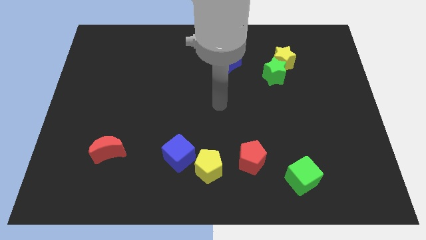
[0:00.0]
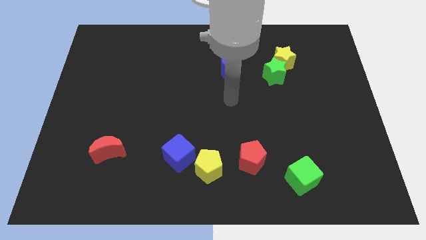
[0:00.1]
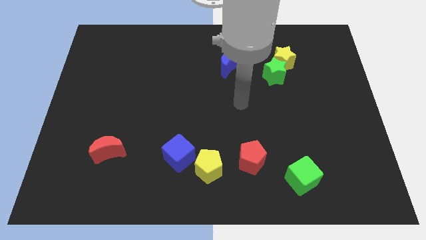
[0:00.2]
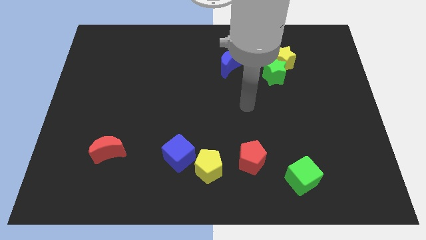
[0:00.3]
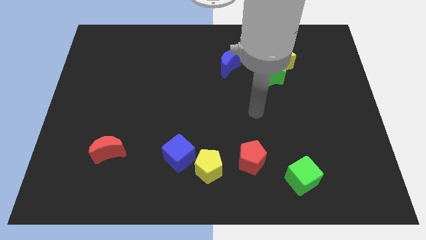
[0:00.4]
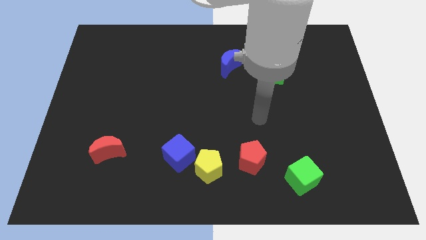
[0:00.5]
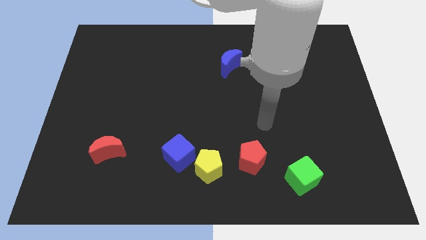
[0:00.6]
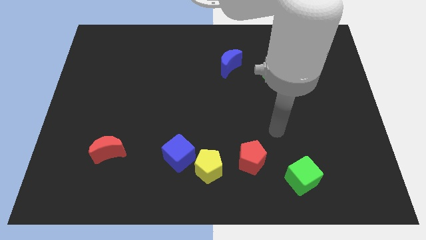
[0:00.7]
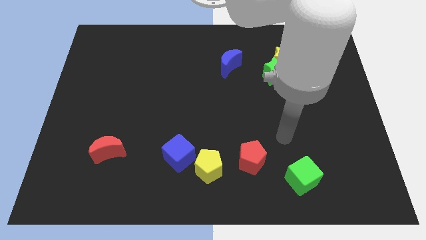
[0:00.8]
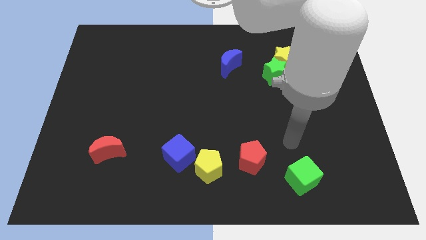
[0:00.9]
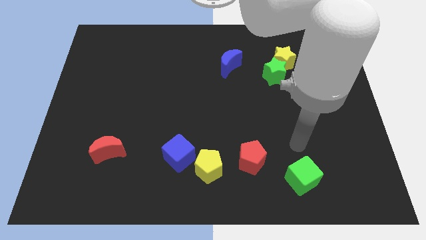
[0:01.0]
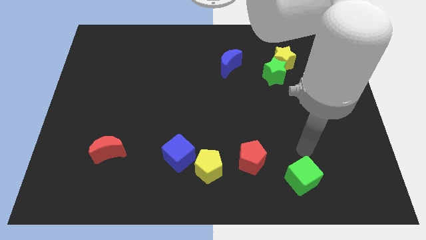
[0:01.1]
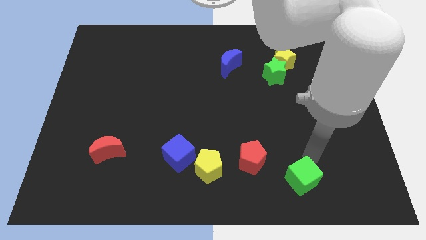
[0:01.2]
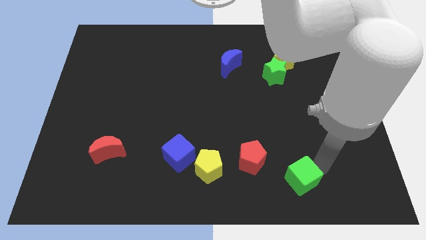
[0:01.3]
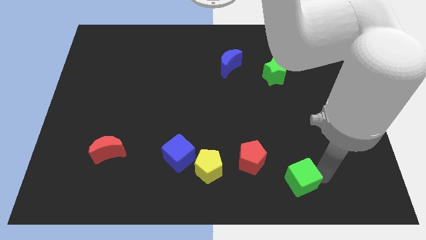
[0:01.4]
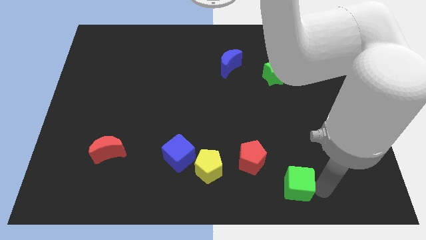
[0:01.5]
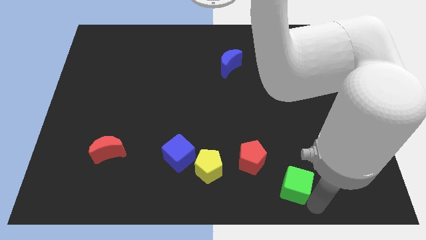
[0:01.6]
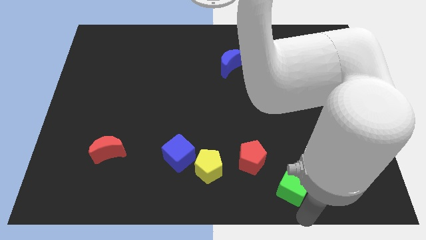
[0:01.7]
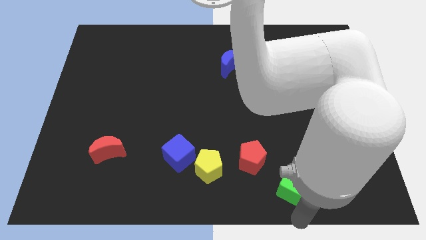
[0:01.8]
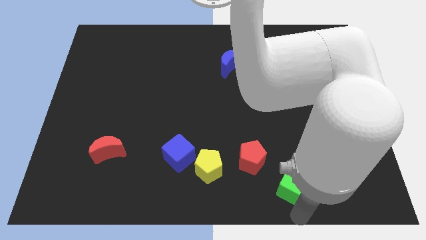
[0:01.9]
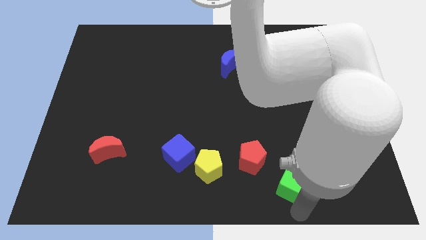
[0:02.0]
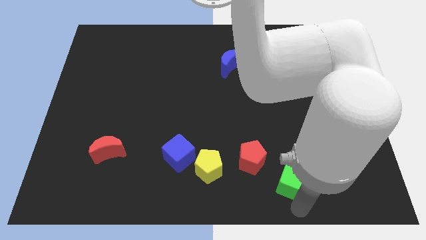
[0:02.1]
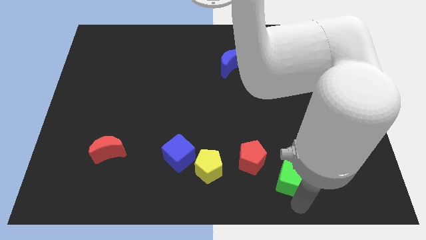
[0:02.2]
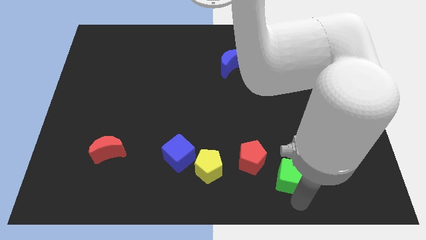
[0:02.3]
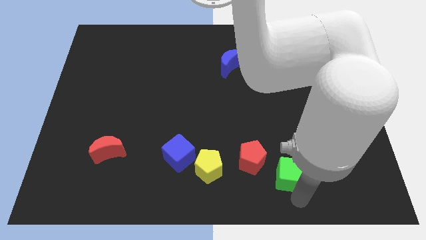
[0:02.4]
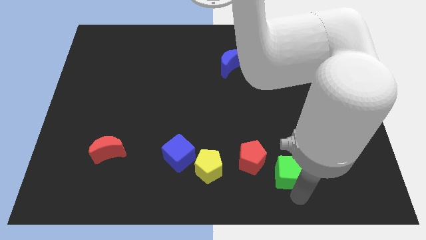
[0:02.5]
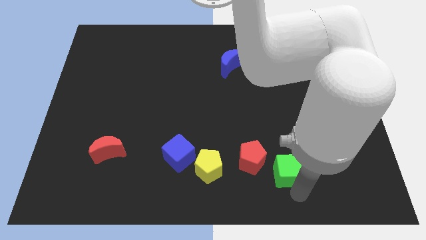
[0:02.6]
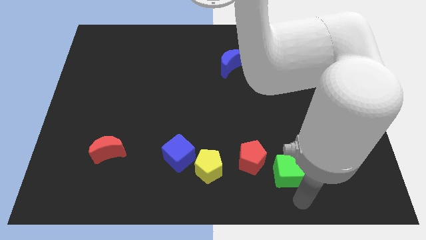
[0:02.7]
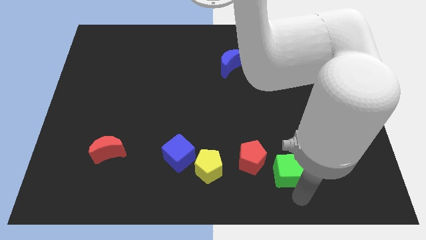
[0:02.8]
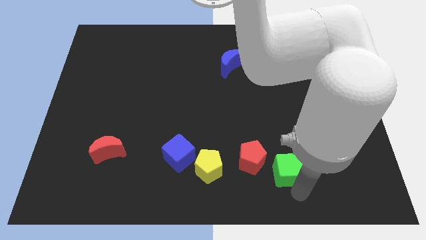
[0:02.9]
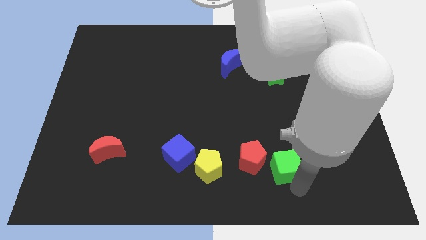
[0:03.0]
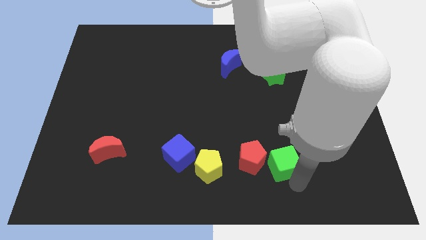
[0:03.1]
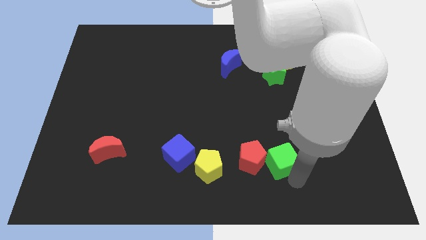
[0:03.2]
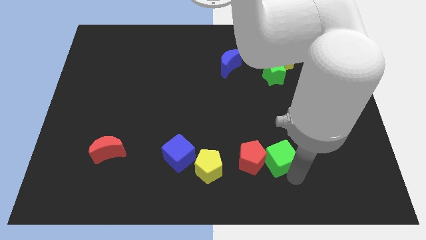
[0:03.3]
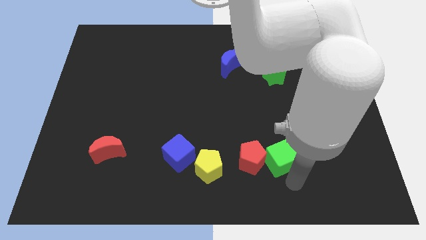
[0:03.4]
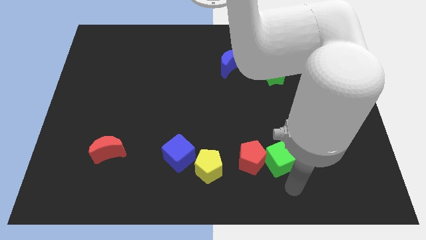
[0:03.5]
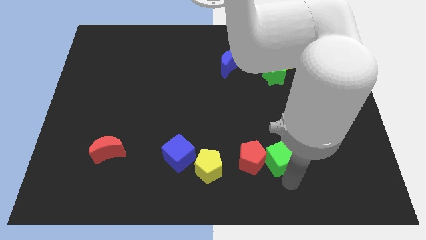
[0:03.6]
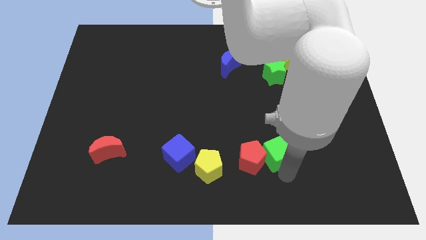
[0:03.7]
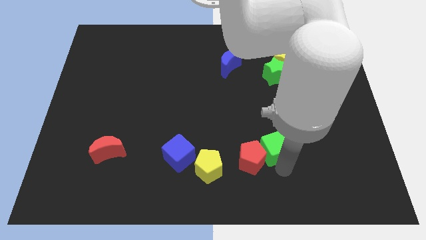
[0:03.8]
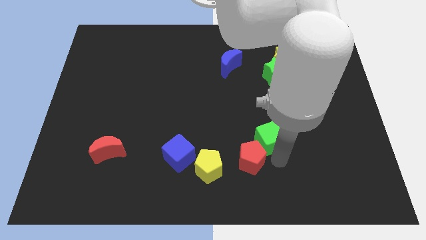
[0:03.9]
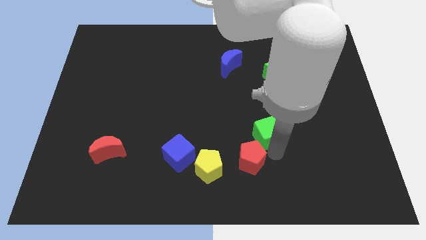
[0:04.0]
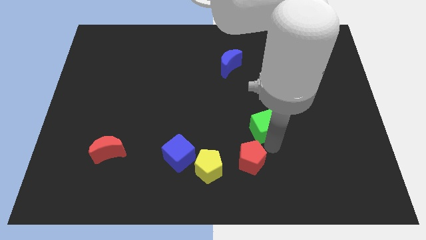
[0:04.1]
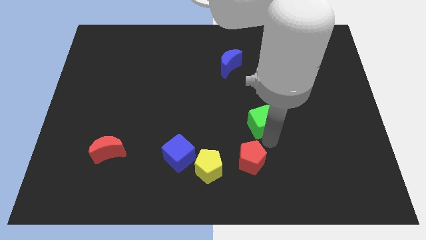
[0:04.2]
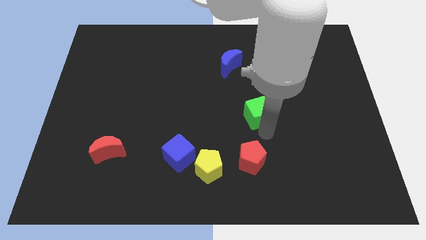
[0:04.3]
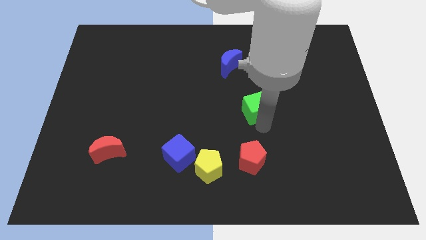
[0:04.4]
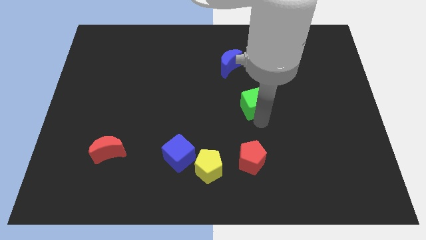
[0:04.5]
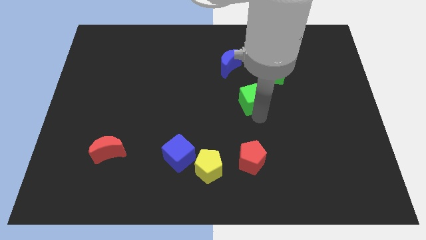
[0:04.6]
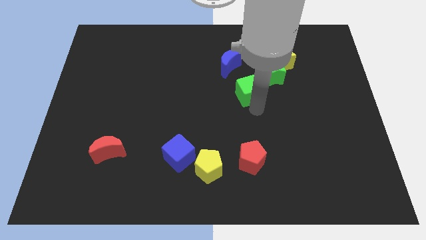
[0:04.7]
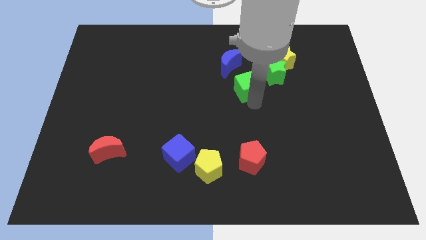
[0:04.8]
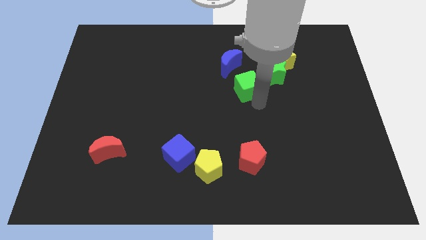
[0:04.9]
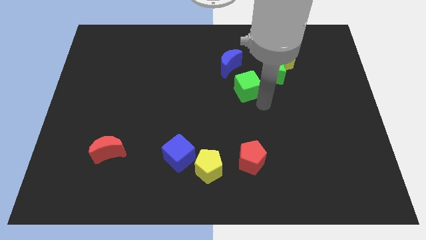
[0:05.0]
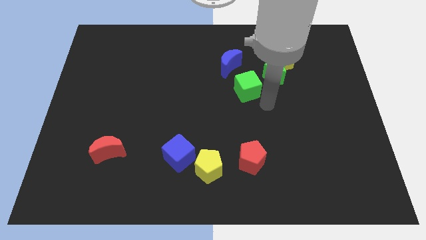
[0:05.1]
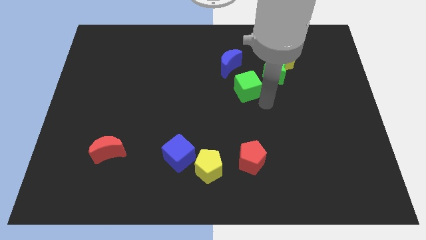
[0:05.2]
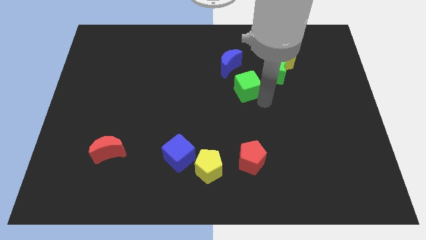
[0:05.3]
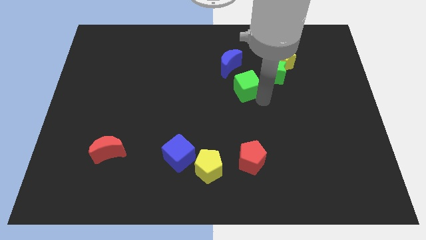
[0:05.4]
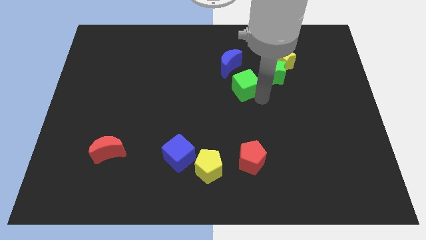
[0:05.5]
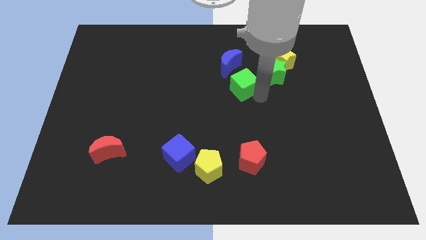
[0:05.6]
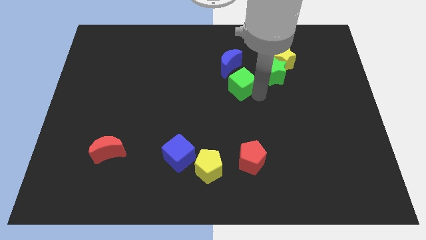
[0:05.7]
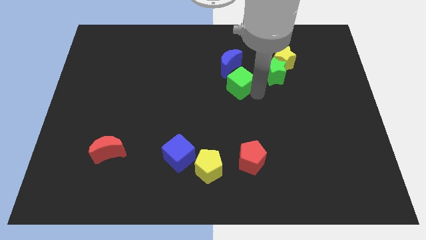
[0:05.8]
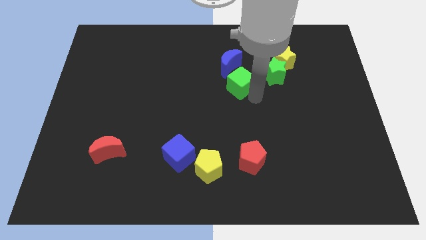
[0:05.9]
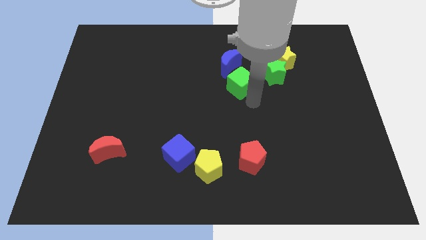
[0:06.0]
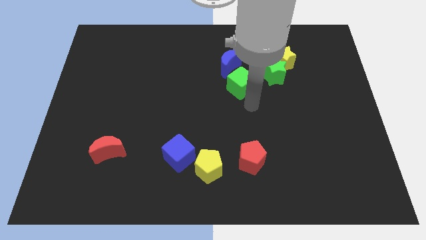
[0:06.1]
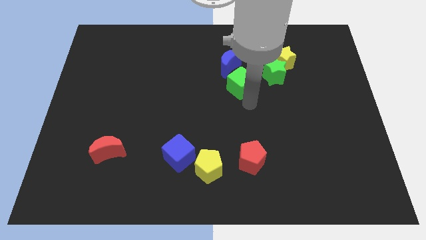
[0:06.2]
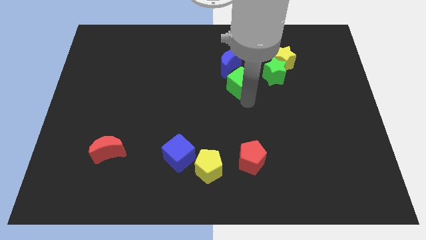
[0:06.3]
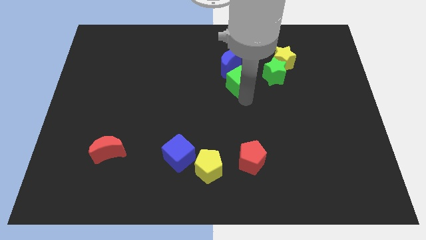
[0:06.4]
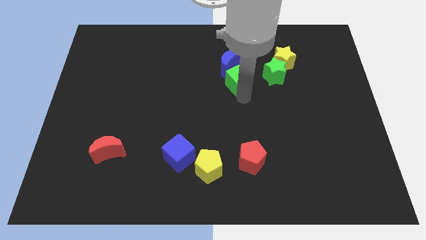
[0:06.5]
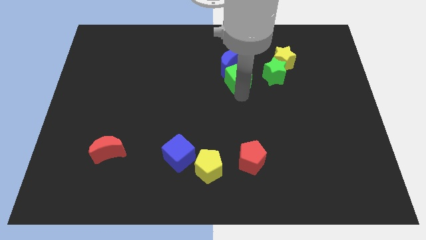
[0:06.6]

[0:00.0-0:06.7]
put the green cube towards the blue moon

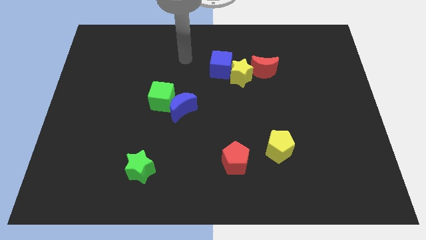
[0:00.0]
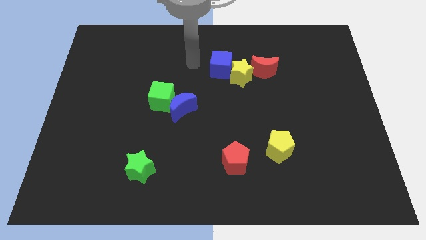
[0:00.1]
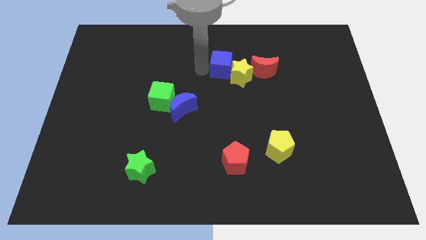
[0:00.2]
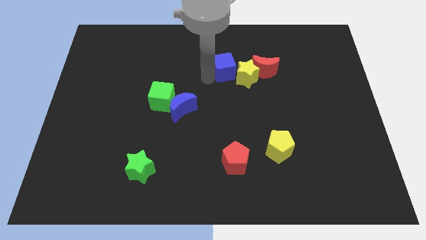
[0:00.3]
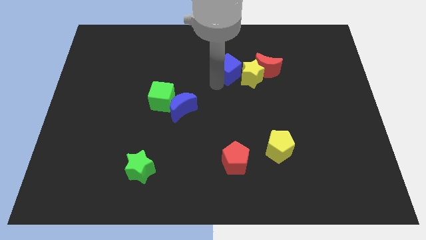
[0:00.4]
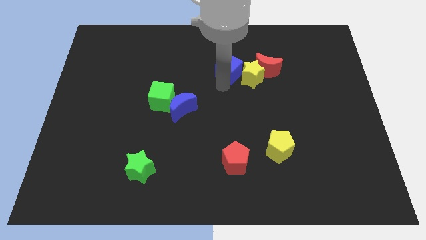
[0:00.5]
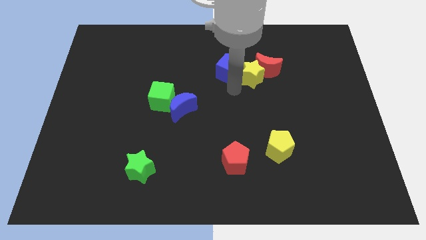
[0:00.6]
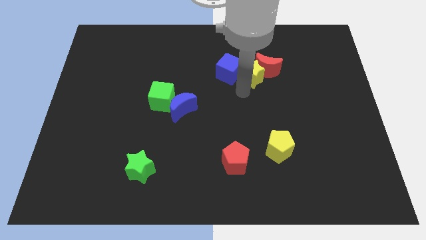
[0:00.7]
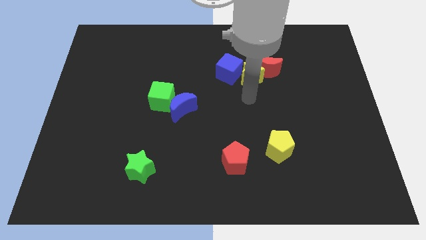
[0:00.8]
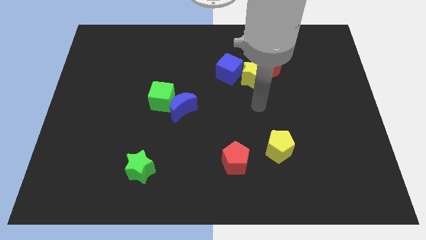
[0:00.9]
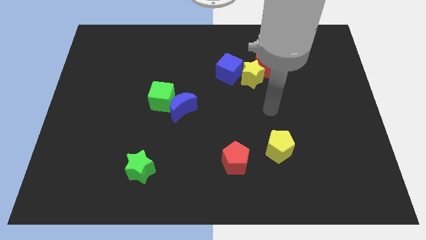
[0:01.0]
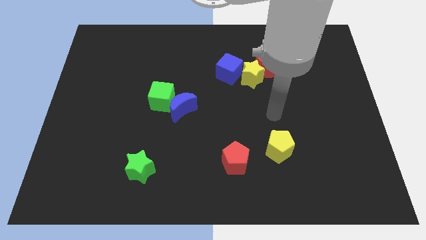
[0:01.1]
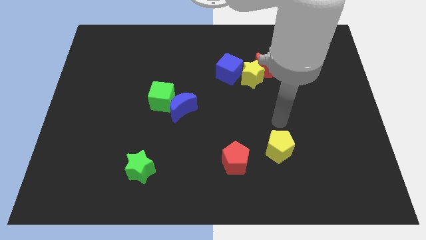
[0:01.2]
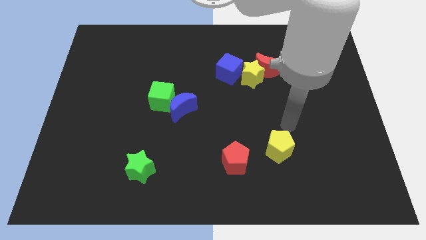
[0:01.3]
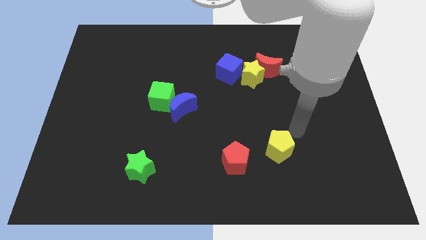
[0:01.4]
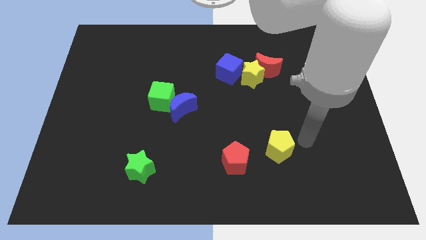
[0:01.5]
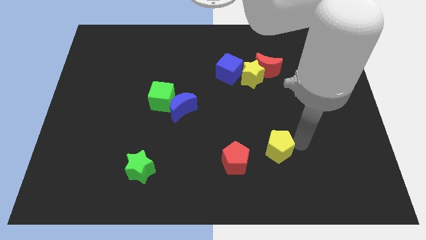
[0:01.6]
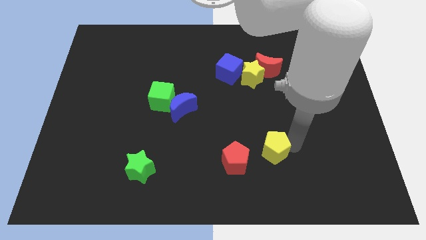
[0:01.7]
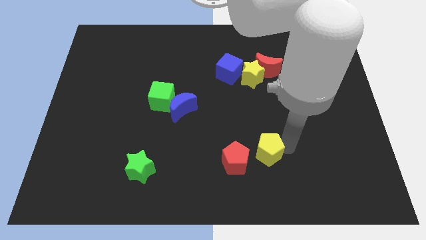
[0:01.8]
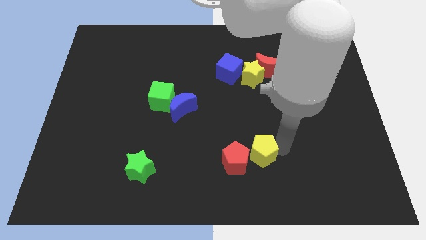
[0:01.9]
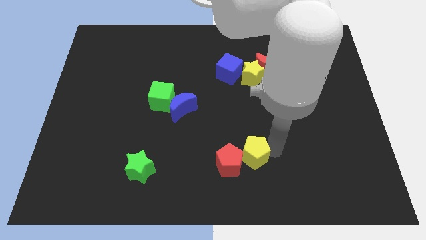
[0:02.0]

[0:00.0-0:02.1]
move the yellow pentagon close to the red pentagon
